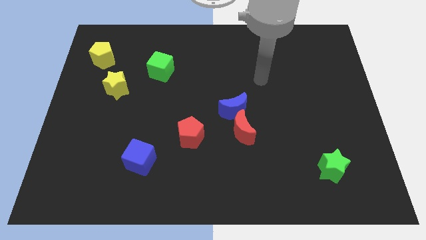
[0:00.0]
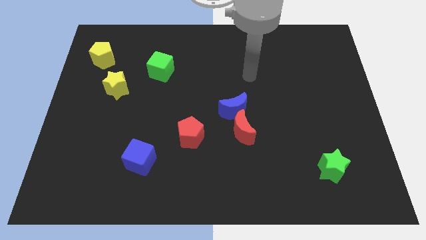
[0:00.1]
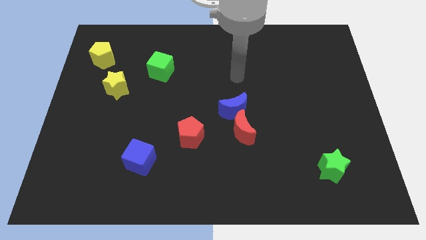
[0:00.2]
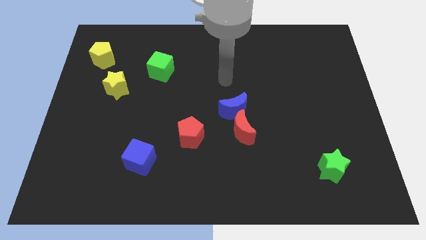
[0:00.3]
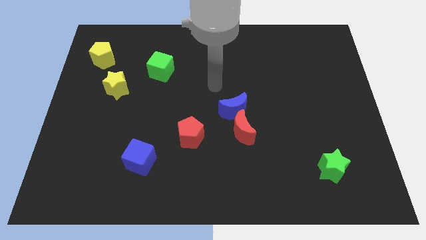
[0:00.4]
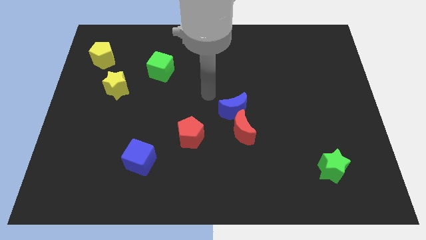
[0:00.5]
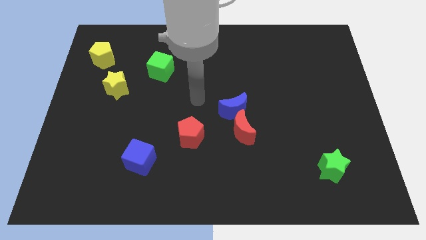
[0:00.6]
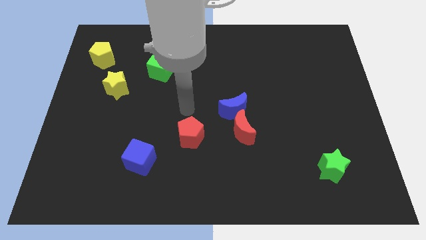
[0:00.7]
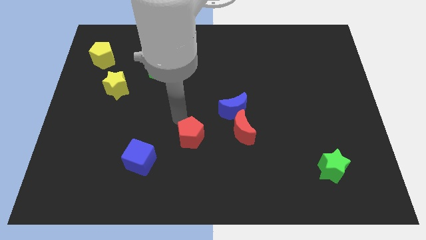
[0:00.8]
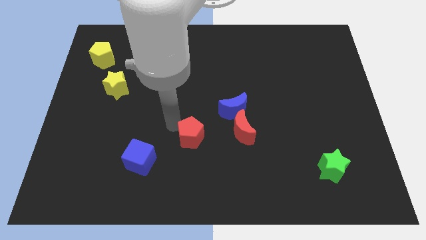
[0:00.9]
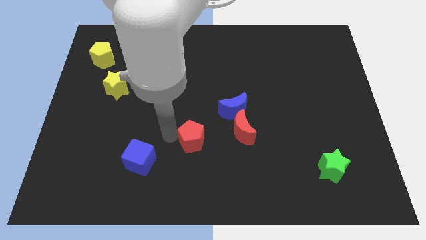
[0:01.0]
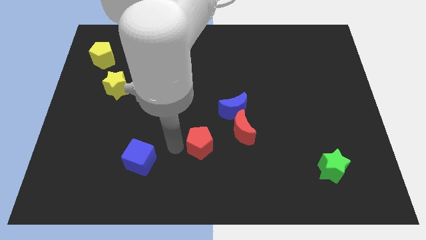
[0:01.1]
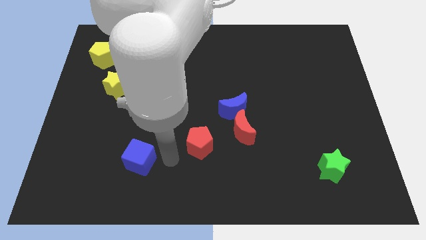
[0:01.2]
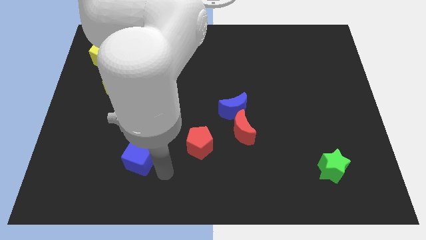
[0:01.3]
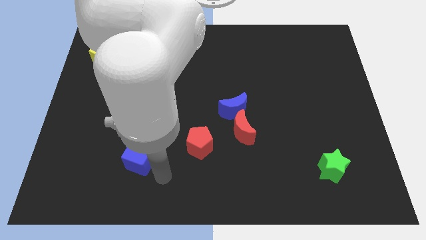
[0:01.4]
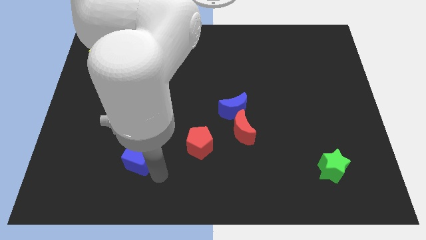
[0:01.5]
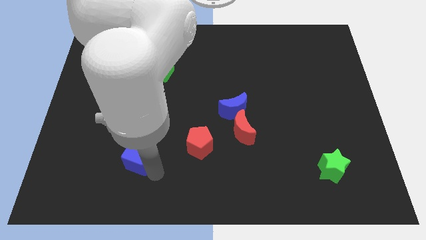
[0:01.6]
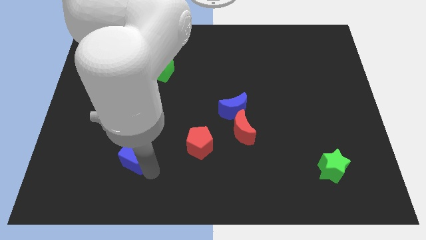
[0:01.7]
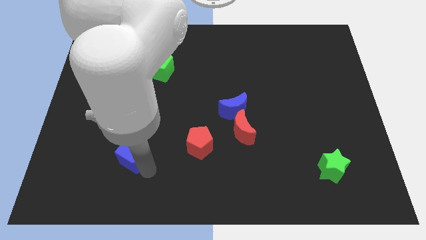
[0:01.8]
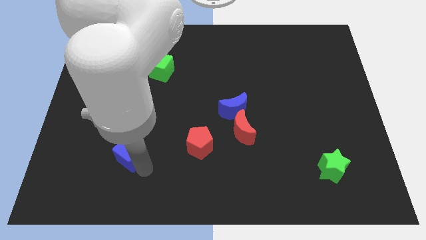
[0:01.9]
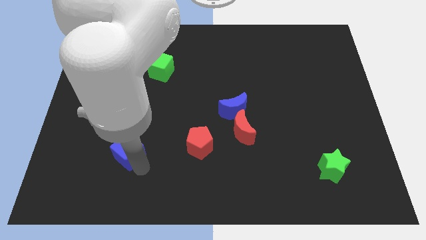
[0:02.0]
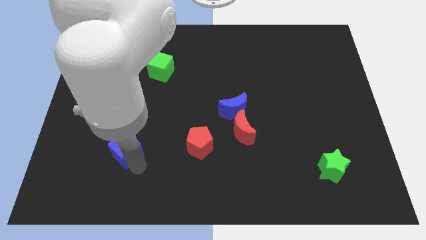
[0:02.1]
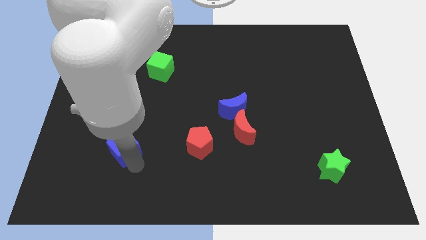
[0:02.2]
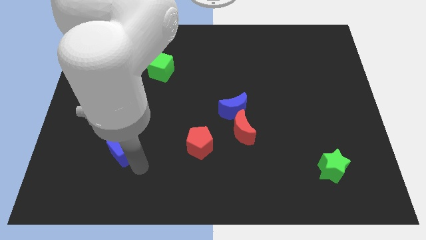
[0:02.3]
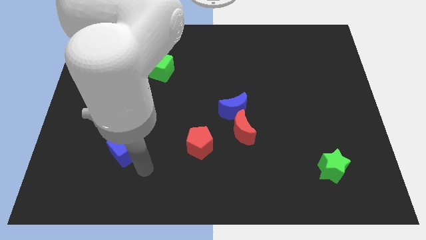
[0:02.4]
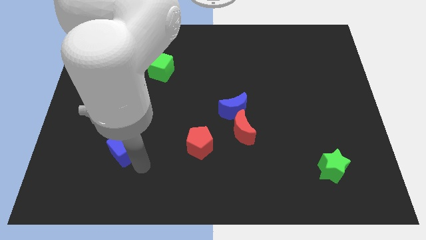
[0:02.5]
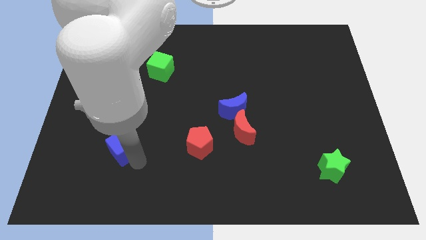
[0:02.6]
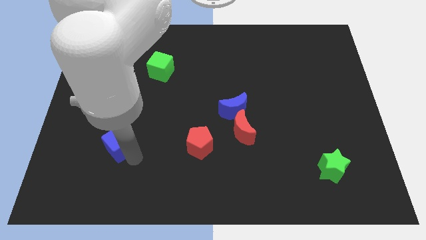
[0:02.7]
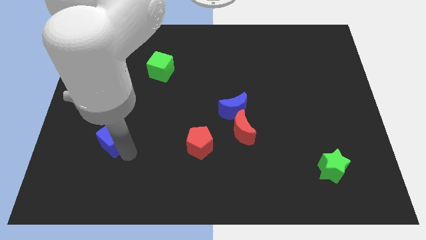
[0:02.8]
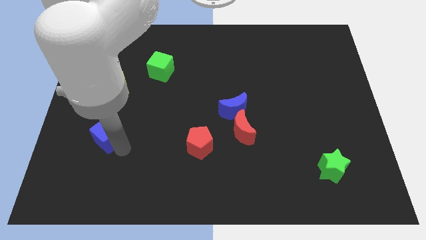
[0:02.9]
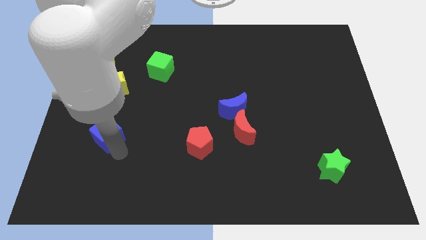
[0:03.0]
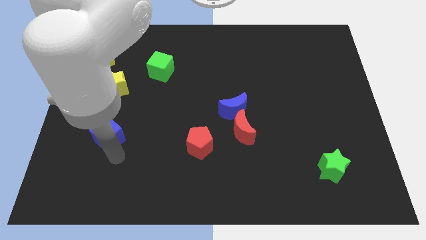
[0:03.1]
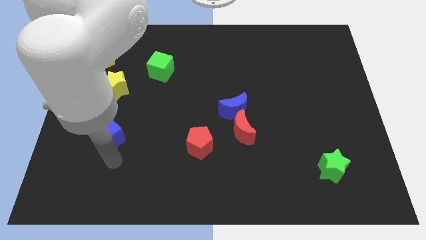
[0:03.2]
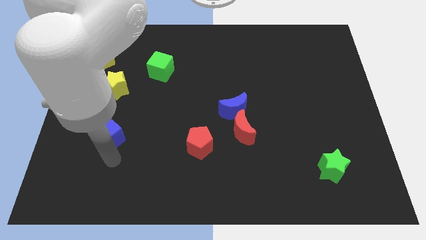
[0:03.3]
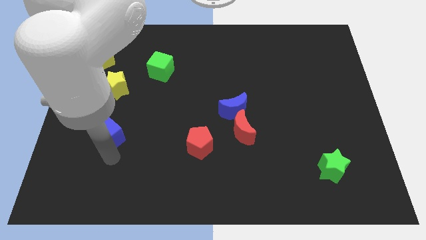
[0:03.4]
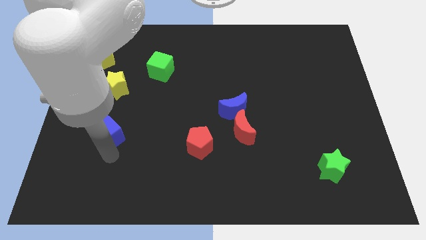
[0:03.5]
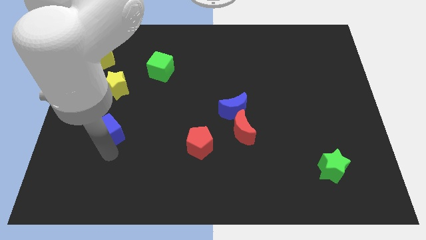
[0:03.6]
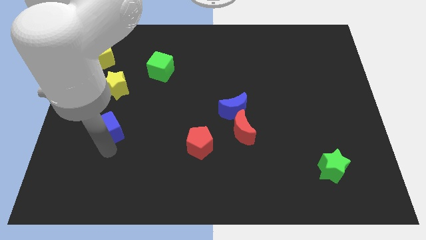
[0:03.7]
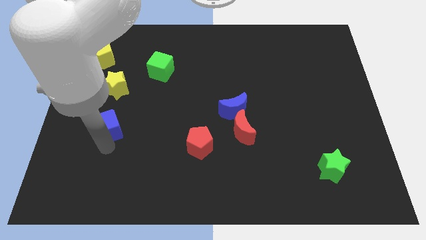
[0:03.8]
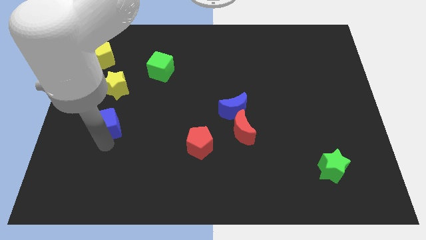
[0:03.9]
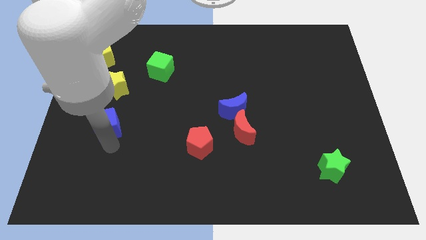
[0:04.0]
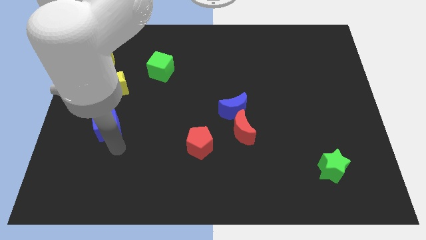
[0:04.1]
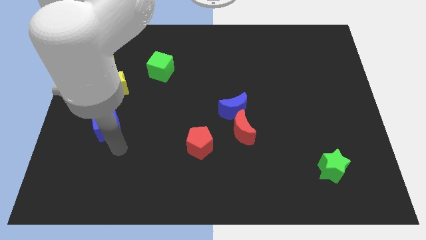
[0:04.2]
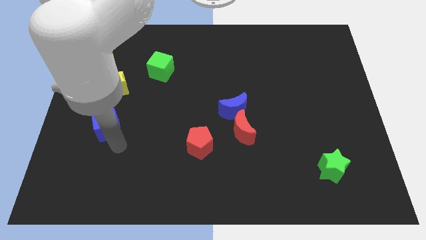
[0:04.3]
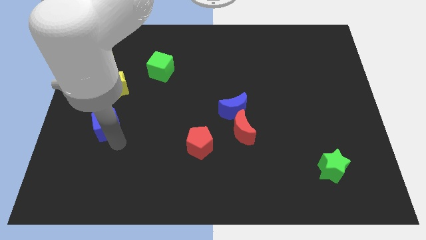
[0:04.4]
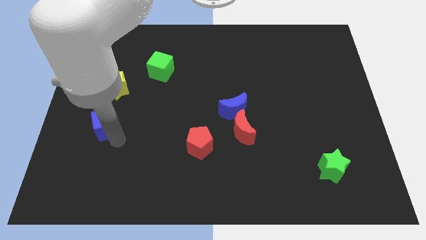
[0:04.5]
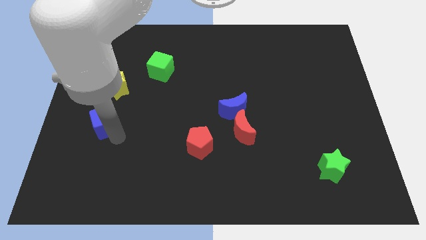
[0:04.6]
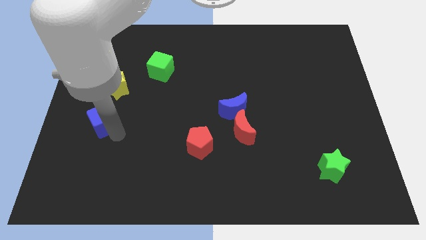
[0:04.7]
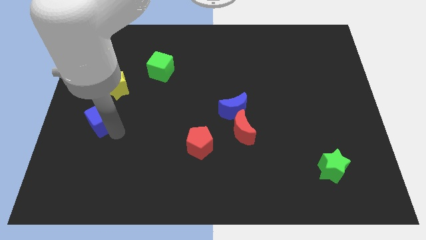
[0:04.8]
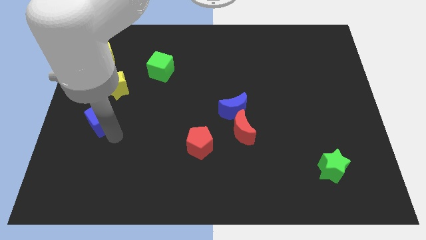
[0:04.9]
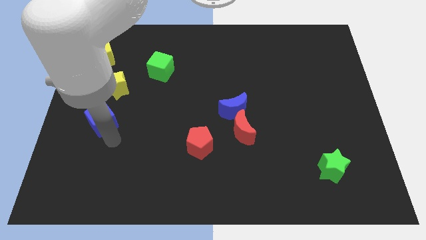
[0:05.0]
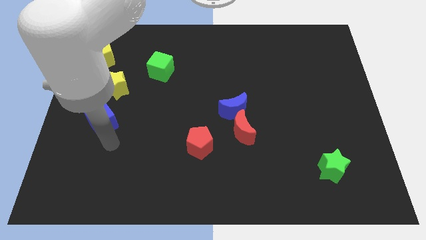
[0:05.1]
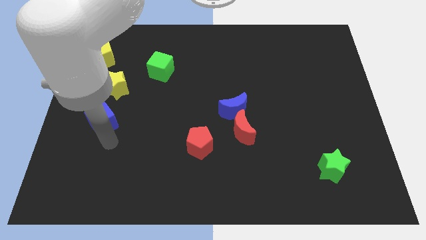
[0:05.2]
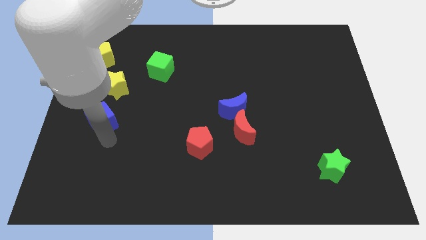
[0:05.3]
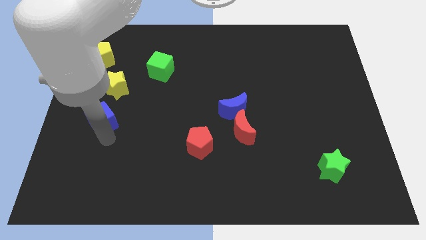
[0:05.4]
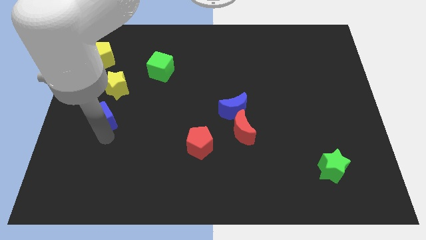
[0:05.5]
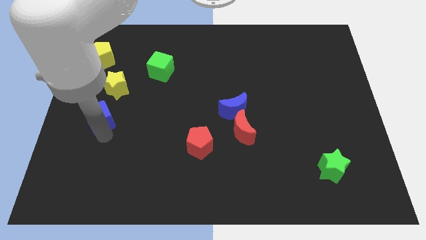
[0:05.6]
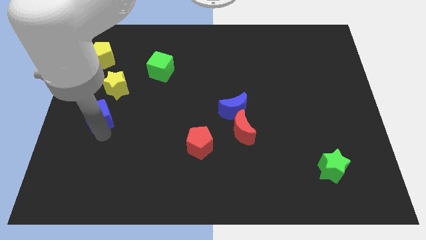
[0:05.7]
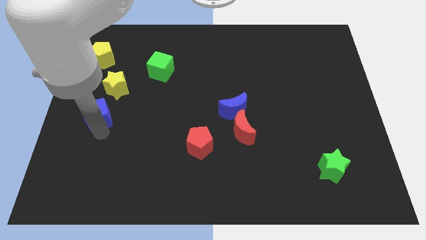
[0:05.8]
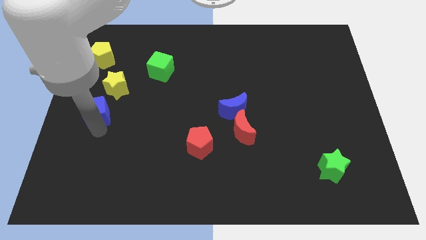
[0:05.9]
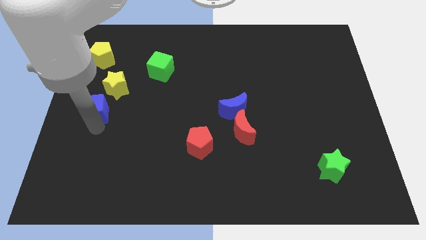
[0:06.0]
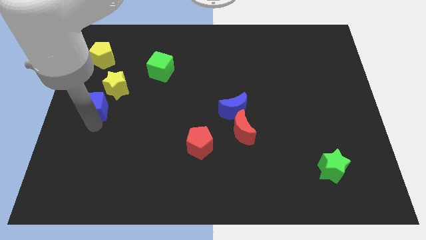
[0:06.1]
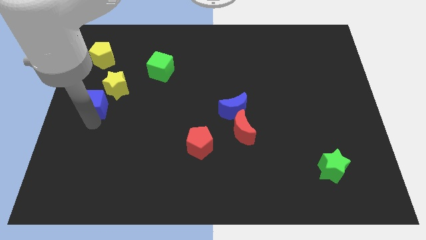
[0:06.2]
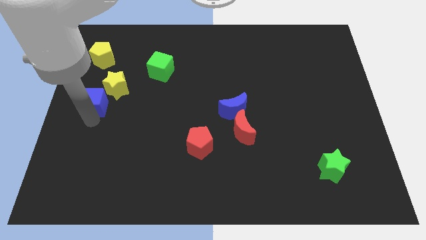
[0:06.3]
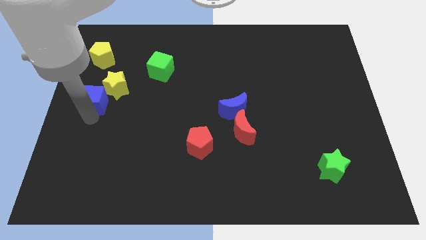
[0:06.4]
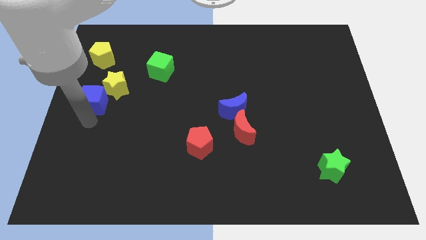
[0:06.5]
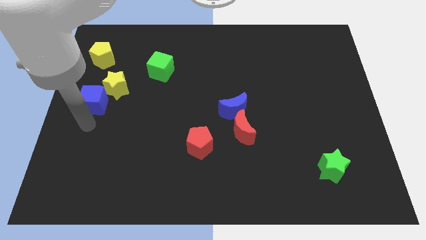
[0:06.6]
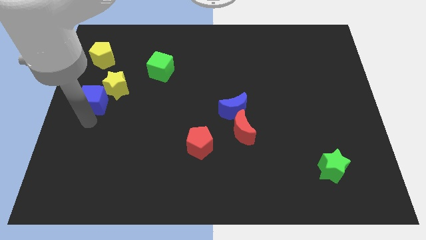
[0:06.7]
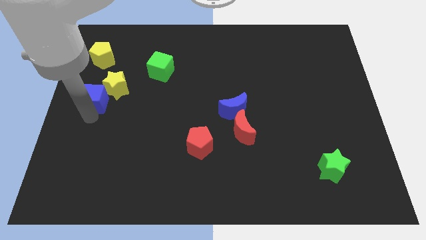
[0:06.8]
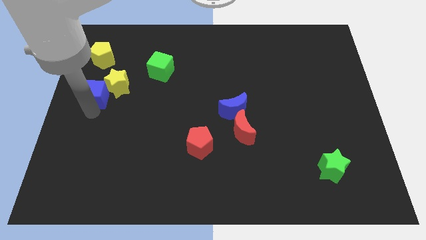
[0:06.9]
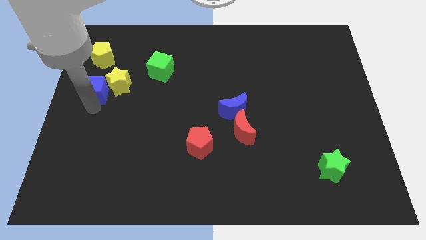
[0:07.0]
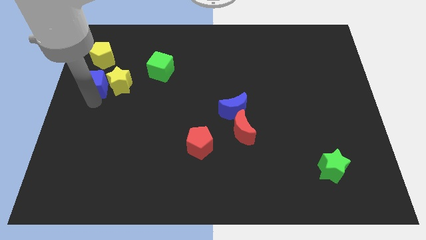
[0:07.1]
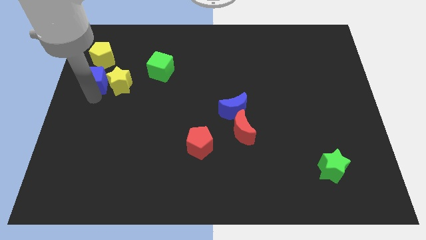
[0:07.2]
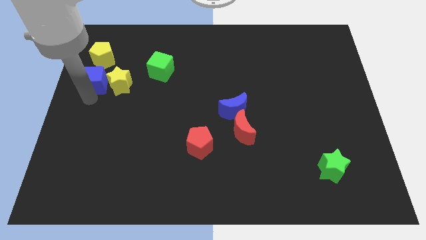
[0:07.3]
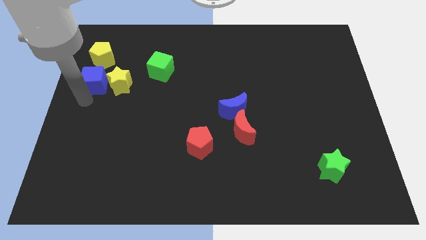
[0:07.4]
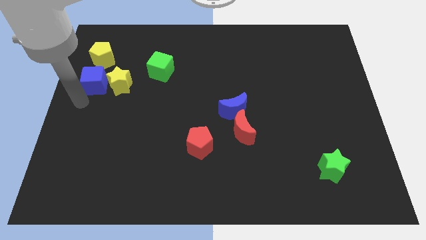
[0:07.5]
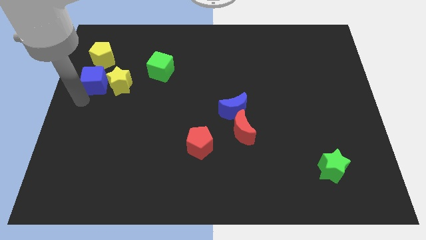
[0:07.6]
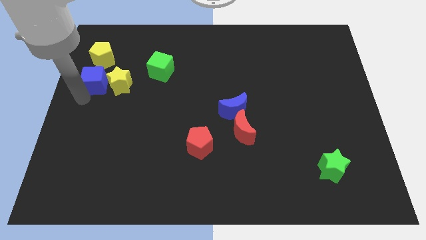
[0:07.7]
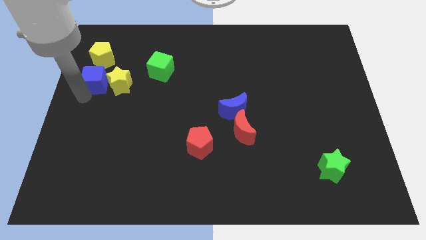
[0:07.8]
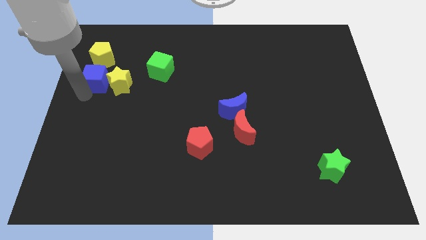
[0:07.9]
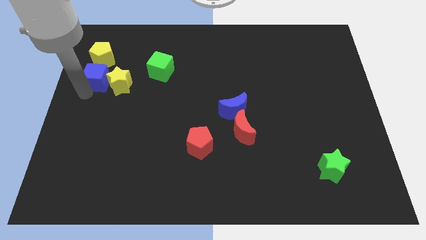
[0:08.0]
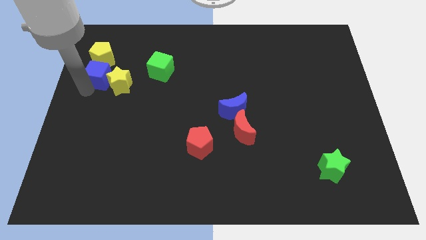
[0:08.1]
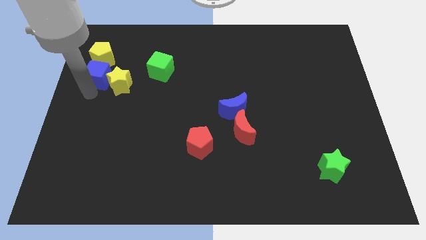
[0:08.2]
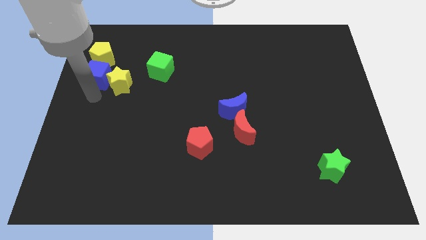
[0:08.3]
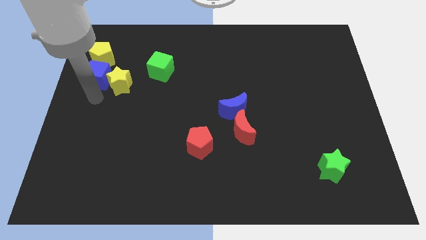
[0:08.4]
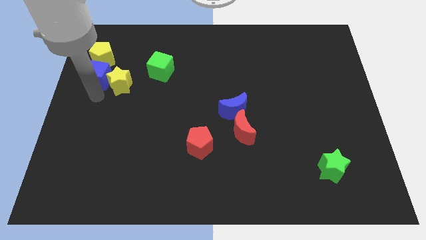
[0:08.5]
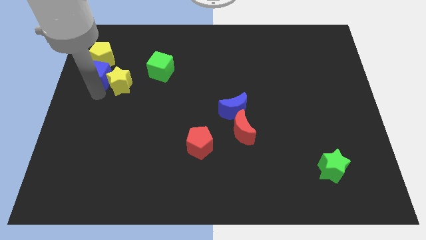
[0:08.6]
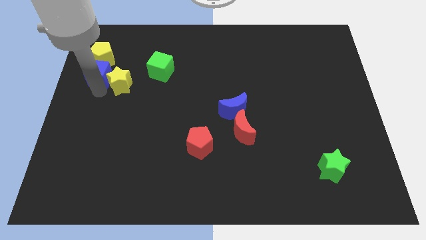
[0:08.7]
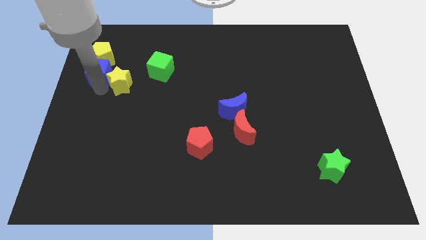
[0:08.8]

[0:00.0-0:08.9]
slide the blue cube to the yellow pentagon
